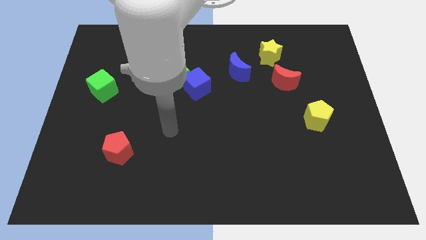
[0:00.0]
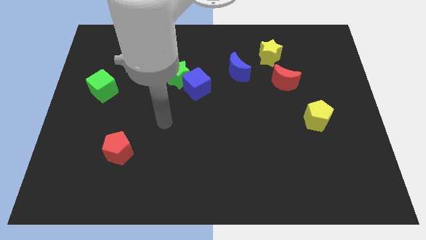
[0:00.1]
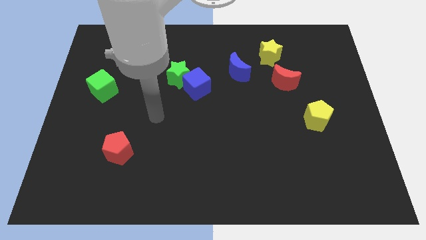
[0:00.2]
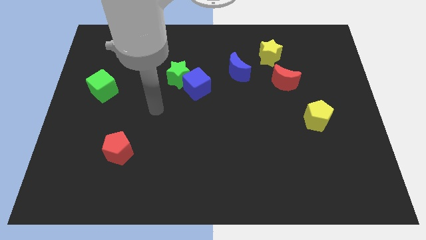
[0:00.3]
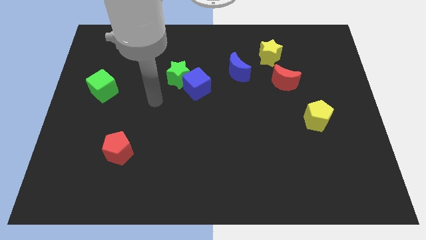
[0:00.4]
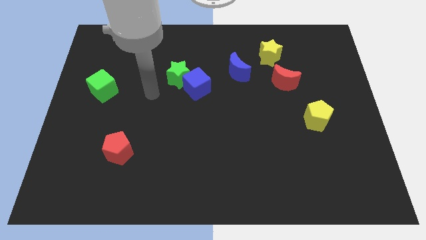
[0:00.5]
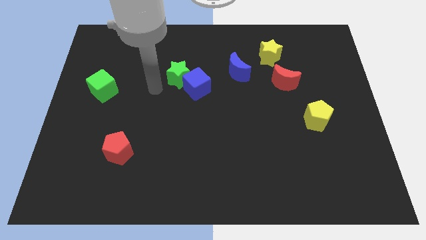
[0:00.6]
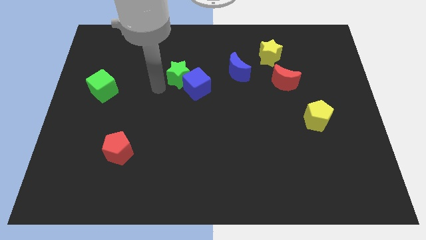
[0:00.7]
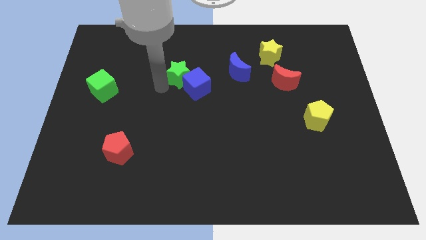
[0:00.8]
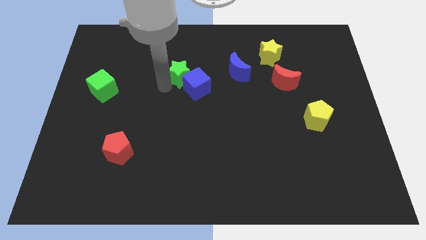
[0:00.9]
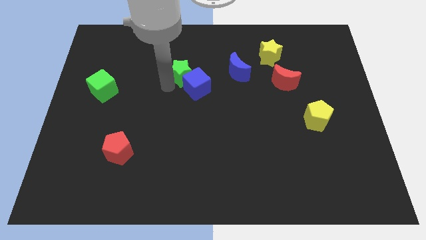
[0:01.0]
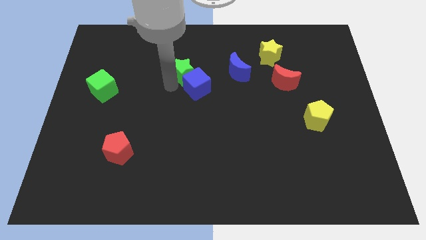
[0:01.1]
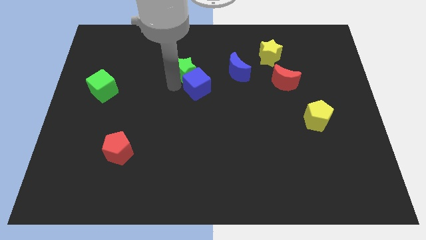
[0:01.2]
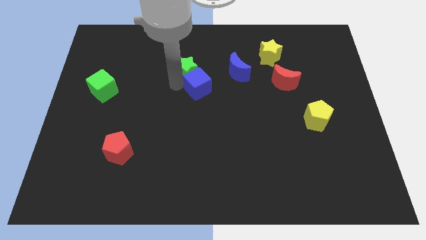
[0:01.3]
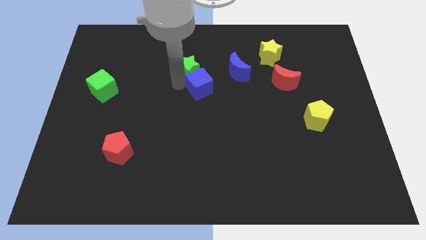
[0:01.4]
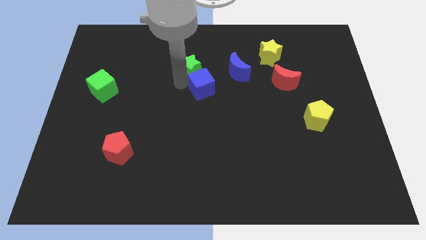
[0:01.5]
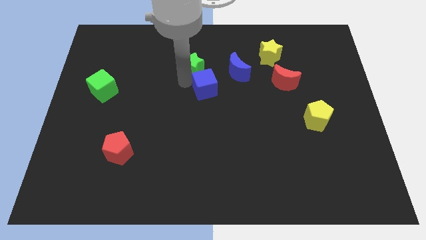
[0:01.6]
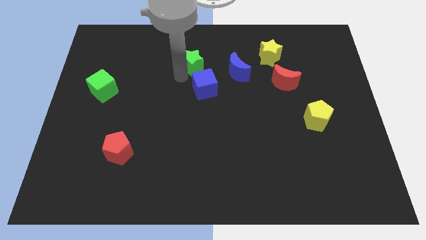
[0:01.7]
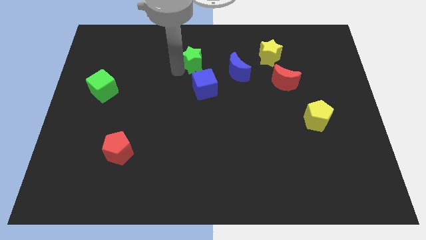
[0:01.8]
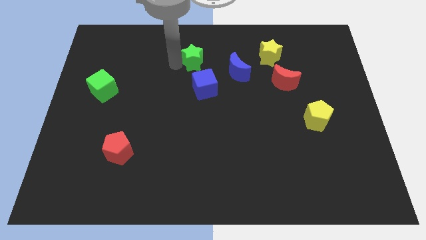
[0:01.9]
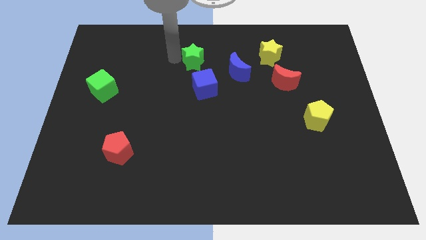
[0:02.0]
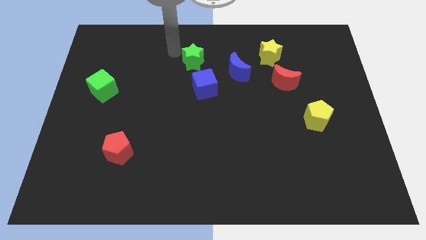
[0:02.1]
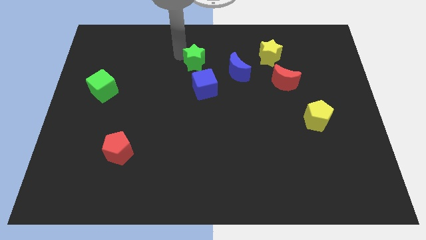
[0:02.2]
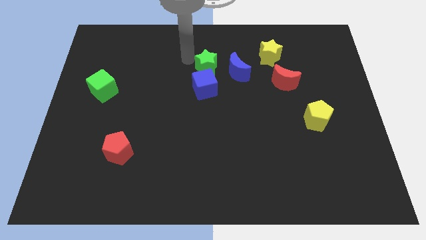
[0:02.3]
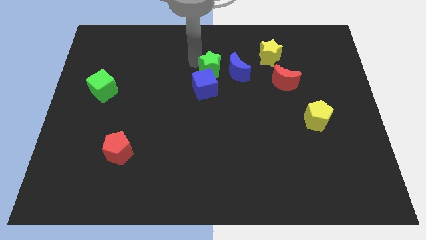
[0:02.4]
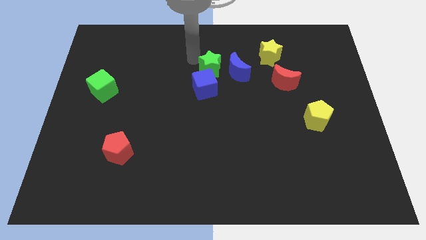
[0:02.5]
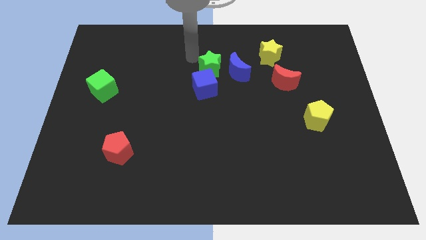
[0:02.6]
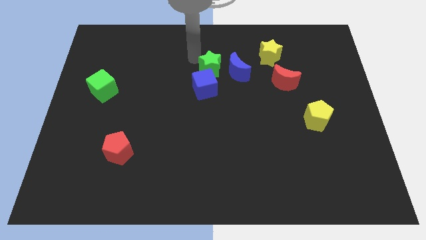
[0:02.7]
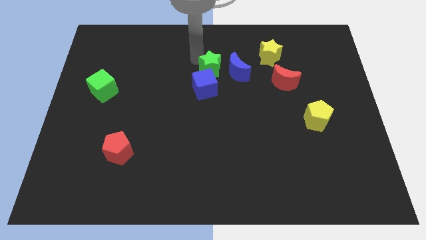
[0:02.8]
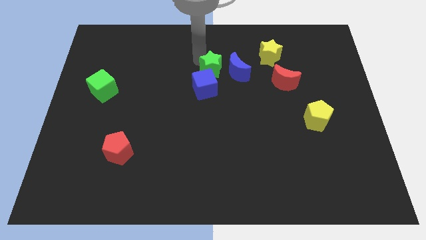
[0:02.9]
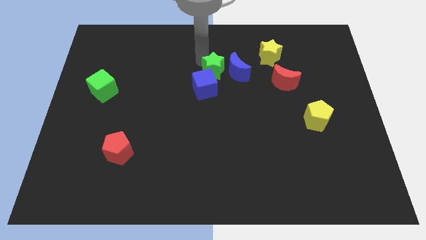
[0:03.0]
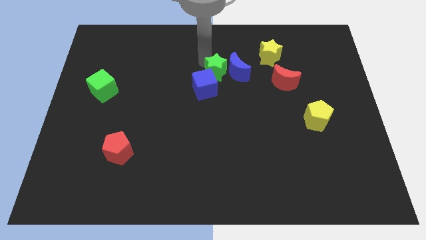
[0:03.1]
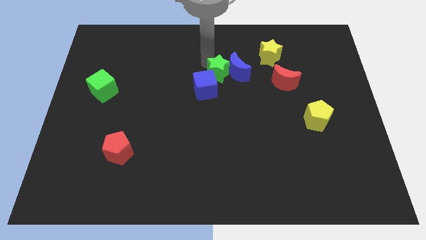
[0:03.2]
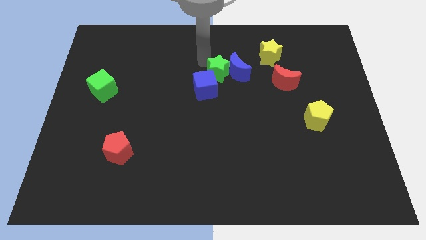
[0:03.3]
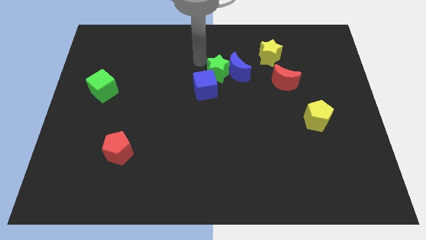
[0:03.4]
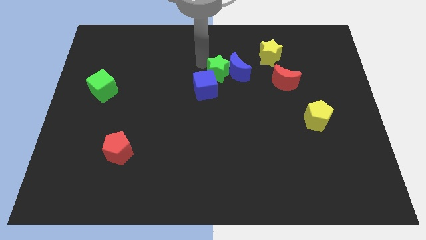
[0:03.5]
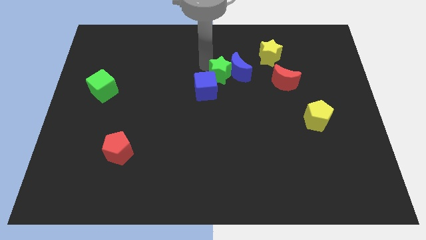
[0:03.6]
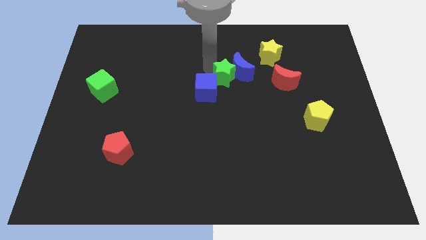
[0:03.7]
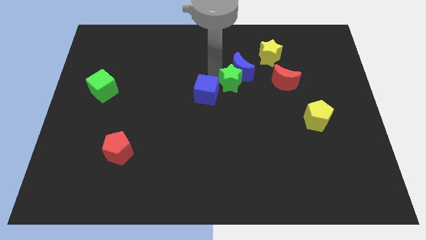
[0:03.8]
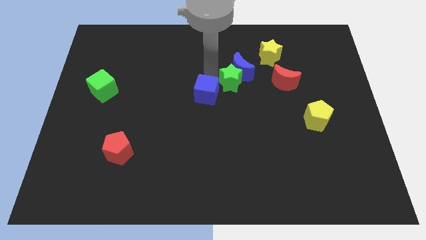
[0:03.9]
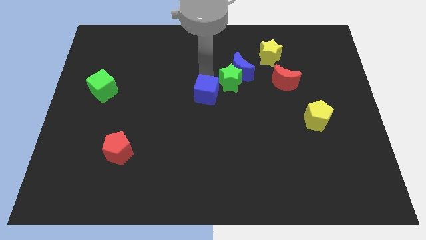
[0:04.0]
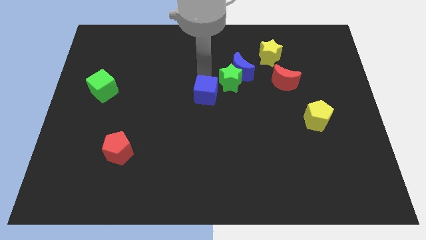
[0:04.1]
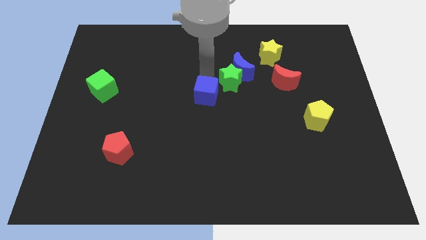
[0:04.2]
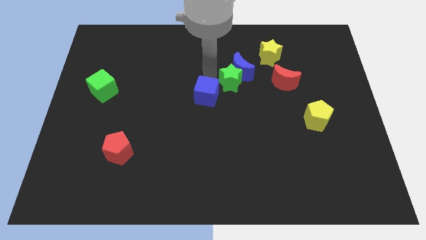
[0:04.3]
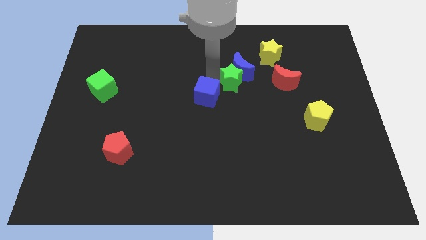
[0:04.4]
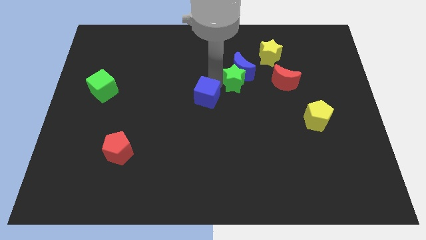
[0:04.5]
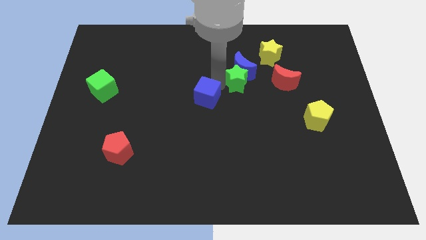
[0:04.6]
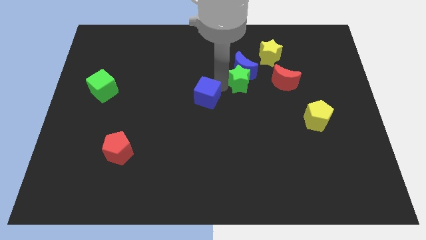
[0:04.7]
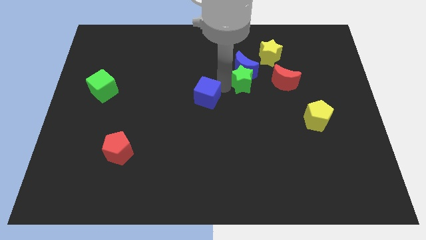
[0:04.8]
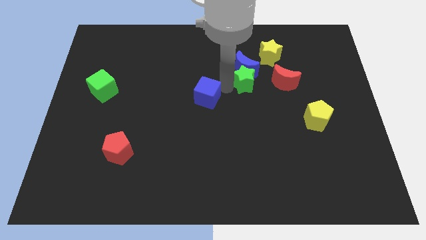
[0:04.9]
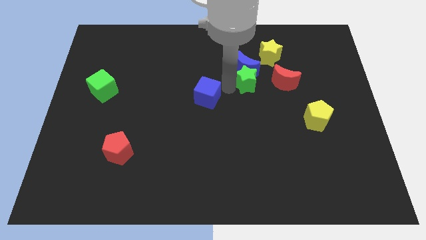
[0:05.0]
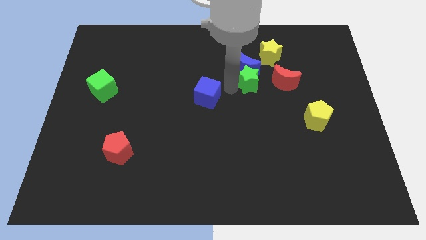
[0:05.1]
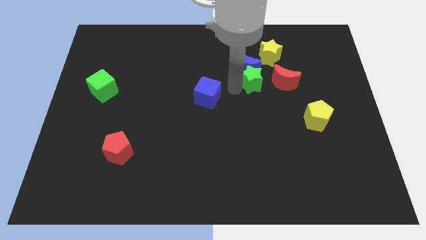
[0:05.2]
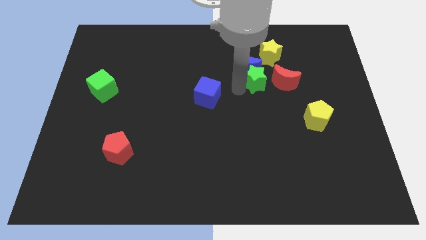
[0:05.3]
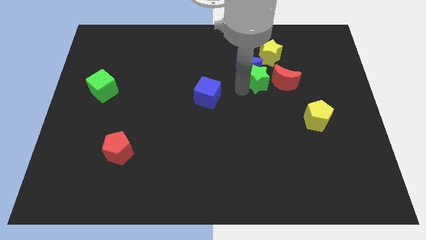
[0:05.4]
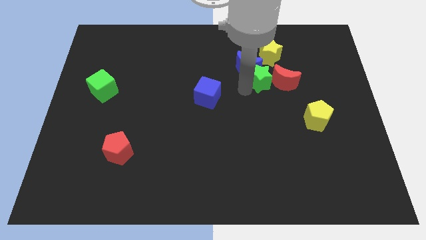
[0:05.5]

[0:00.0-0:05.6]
push the green star to the red moon

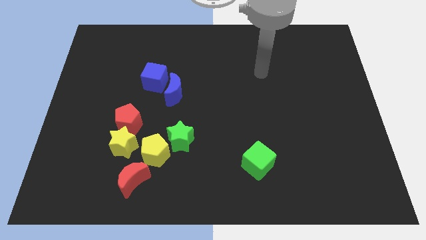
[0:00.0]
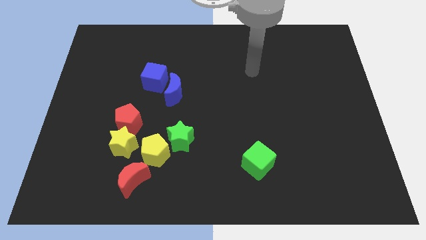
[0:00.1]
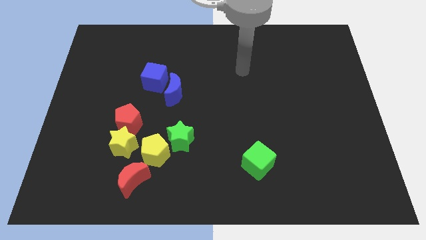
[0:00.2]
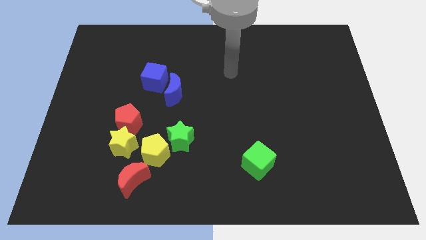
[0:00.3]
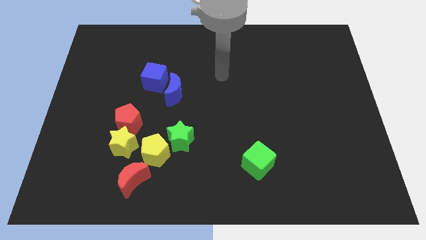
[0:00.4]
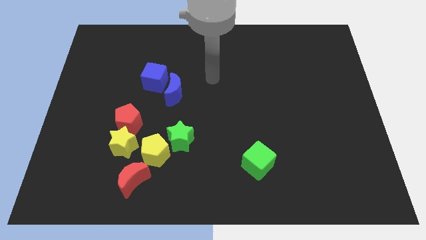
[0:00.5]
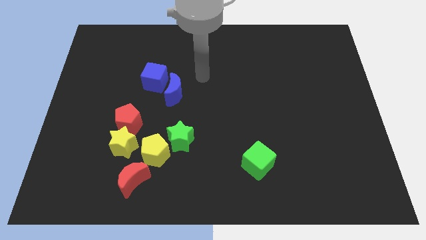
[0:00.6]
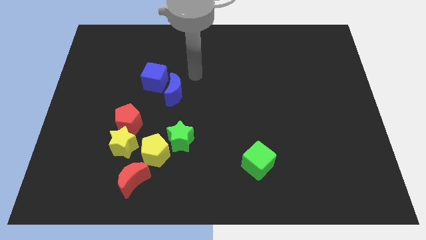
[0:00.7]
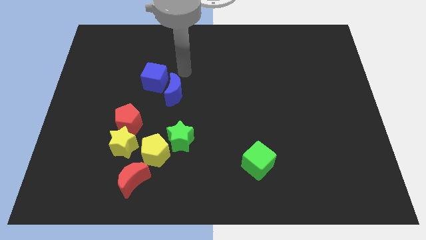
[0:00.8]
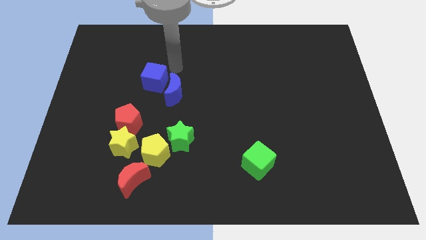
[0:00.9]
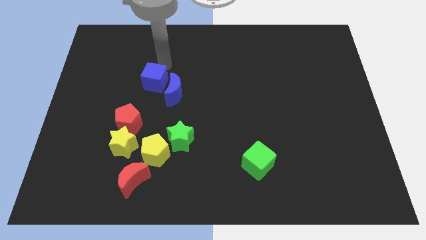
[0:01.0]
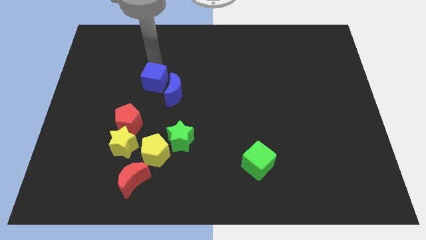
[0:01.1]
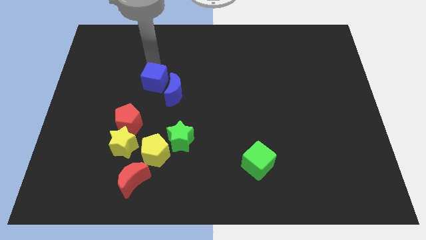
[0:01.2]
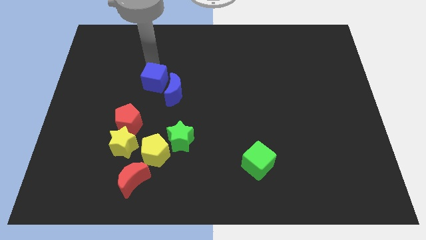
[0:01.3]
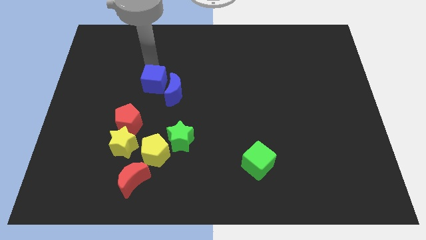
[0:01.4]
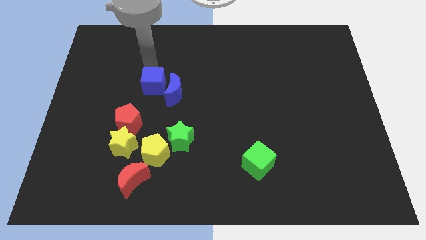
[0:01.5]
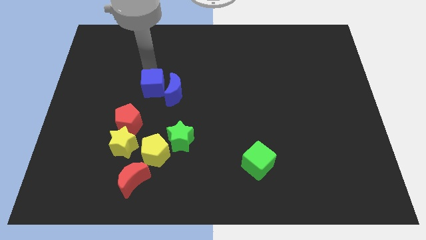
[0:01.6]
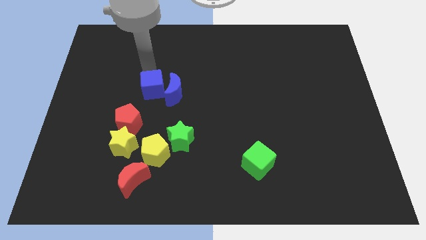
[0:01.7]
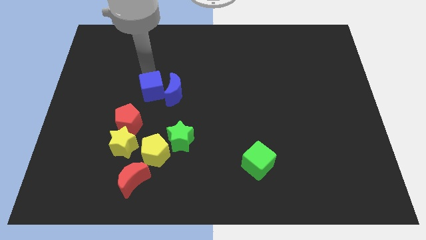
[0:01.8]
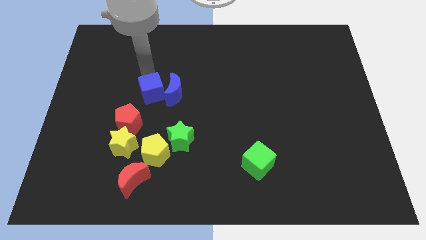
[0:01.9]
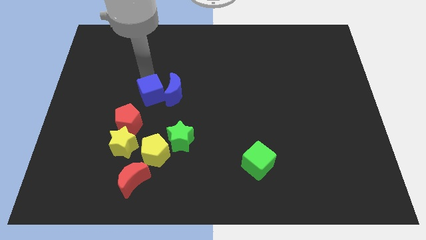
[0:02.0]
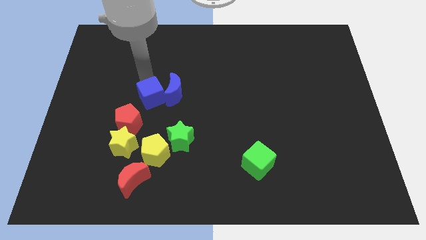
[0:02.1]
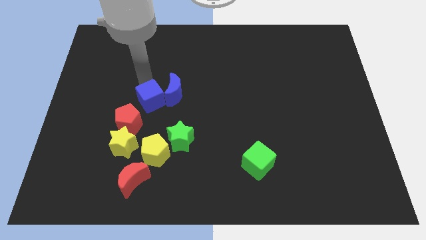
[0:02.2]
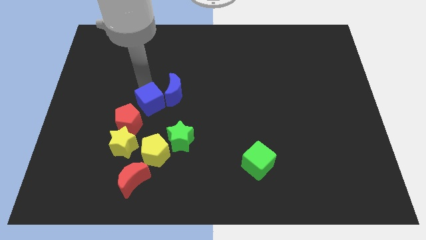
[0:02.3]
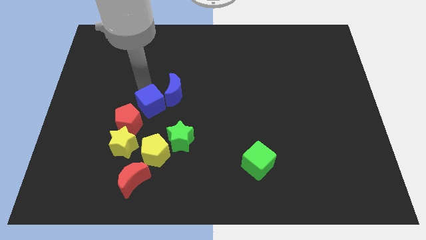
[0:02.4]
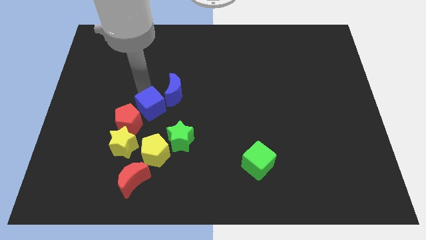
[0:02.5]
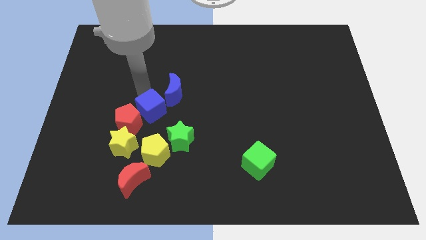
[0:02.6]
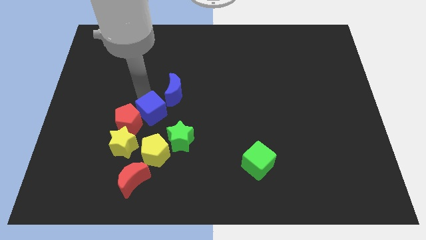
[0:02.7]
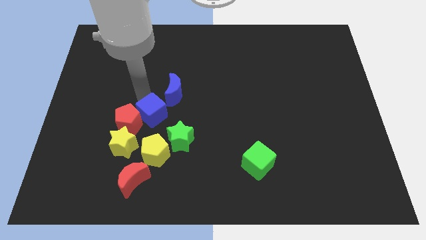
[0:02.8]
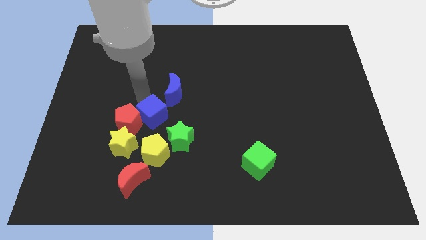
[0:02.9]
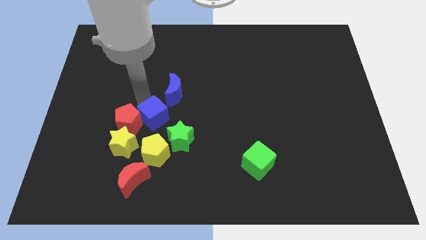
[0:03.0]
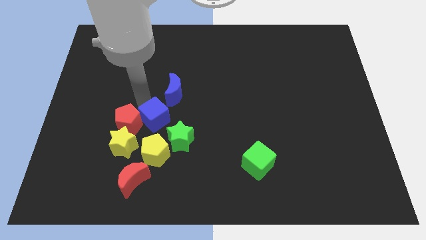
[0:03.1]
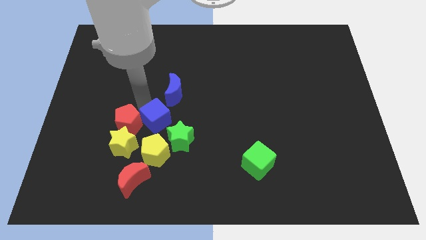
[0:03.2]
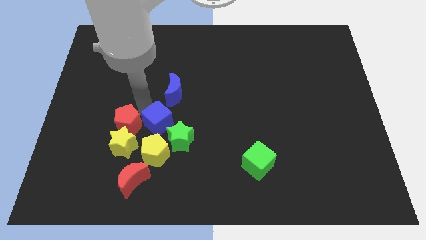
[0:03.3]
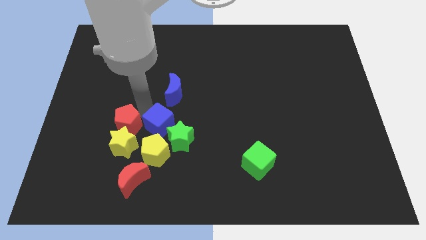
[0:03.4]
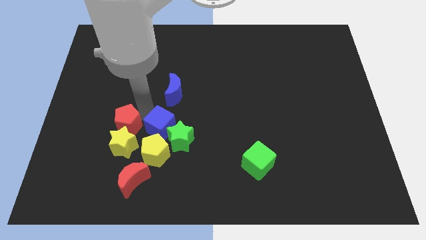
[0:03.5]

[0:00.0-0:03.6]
move the blue cube close to the green star
